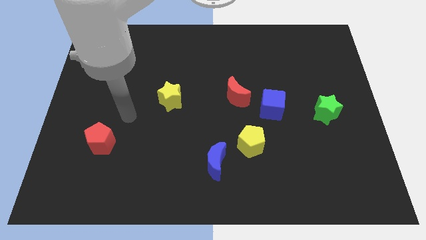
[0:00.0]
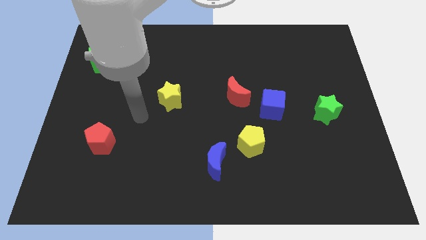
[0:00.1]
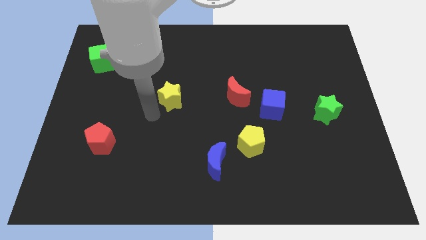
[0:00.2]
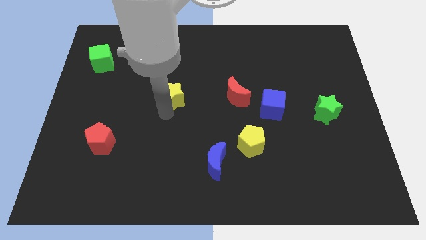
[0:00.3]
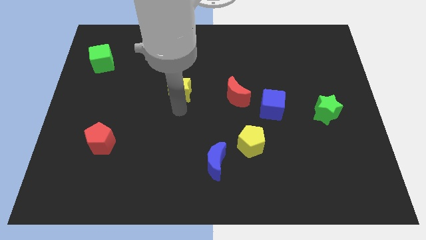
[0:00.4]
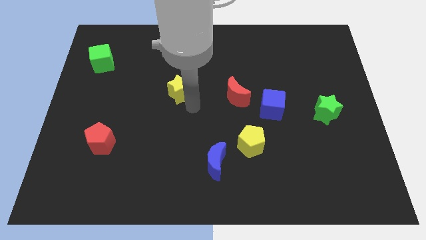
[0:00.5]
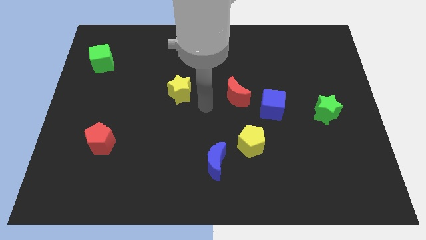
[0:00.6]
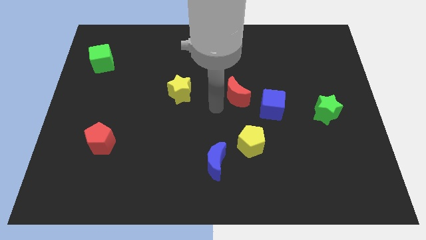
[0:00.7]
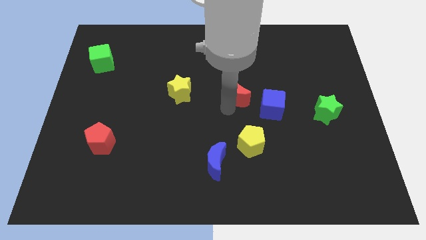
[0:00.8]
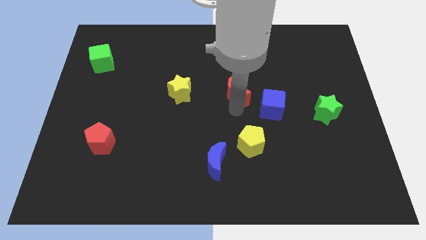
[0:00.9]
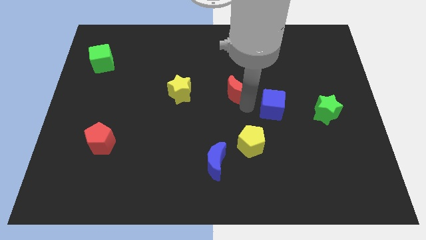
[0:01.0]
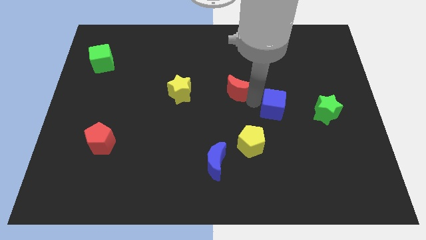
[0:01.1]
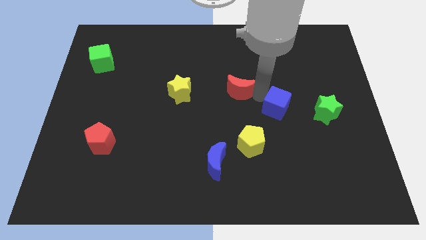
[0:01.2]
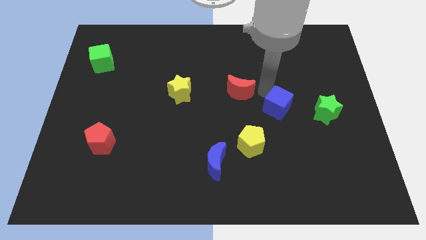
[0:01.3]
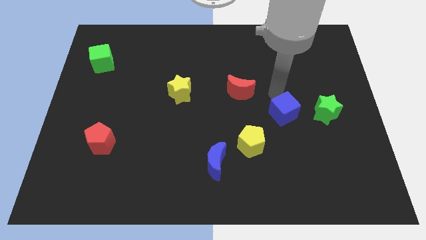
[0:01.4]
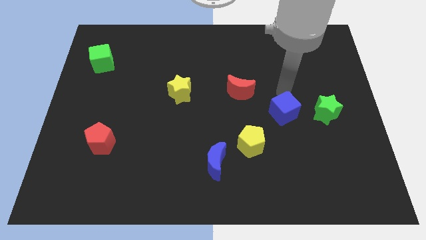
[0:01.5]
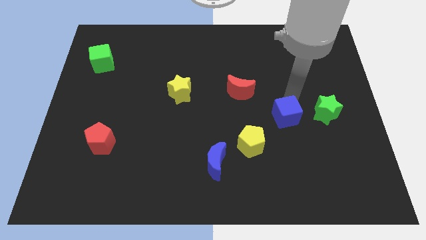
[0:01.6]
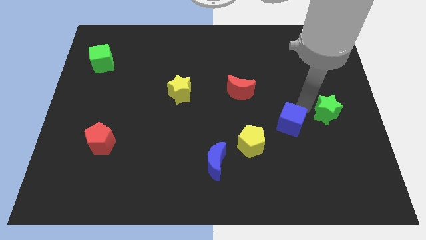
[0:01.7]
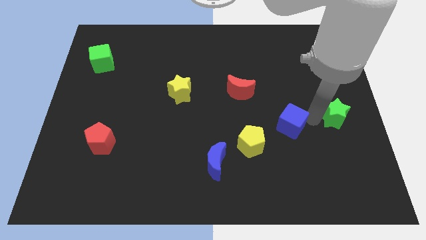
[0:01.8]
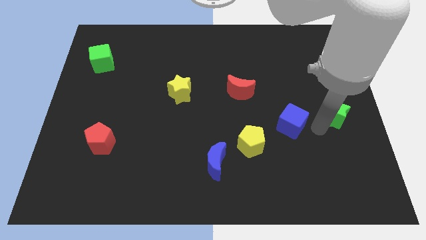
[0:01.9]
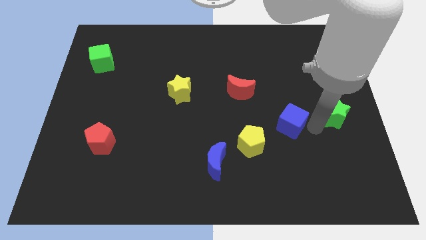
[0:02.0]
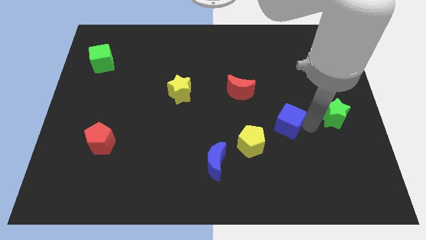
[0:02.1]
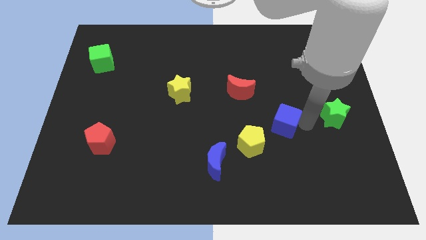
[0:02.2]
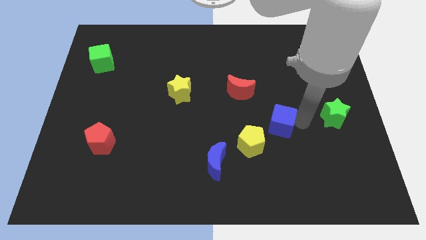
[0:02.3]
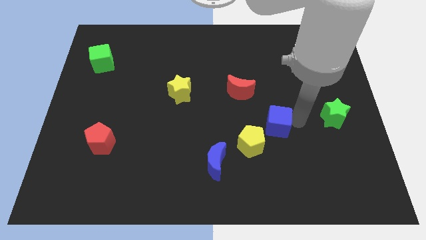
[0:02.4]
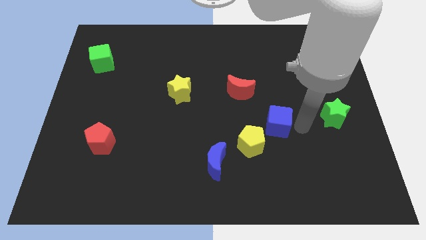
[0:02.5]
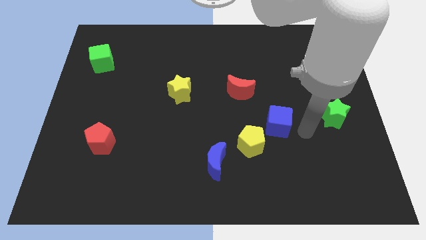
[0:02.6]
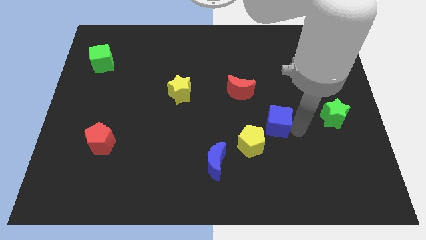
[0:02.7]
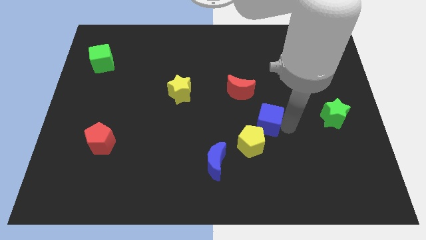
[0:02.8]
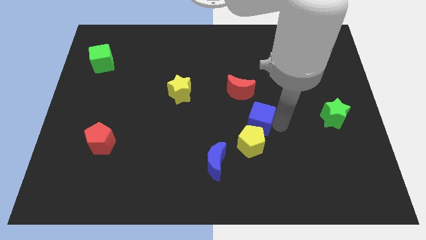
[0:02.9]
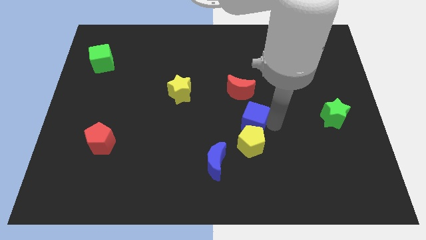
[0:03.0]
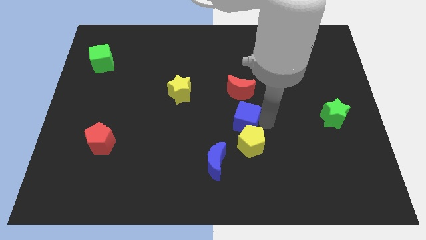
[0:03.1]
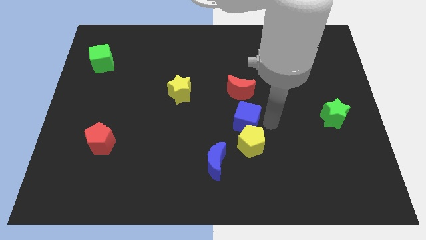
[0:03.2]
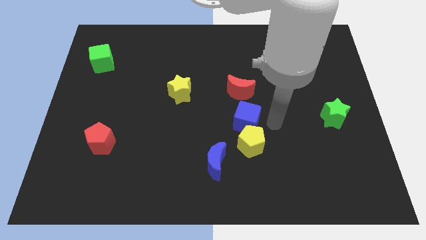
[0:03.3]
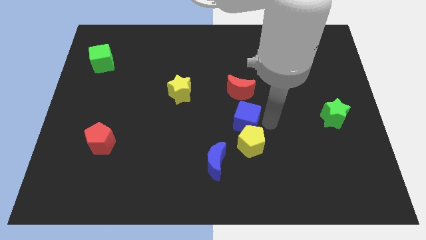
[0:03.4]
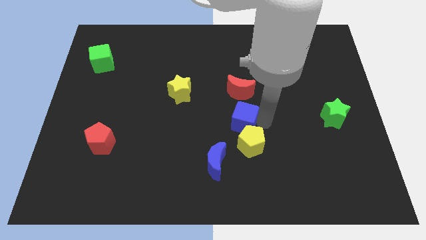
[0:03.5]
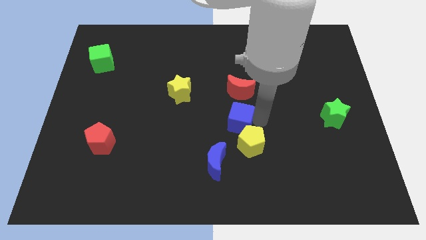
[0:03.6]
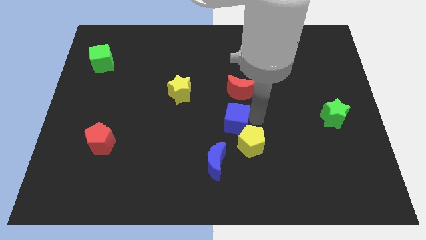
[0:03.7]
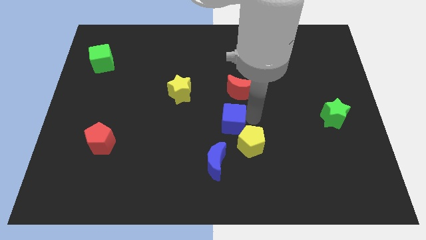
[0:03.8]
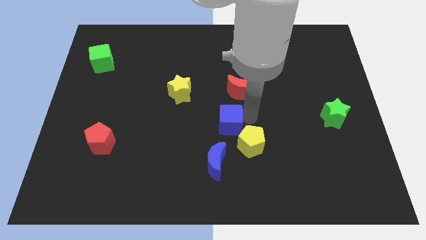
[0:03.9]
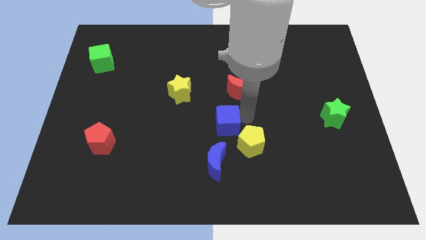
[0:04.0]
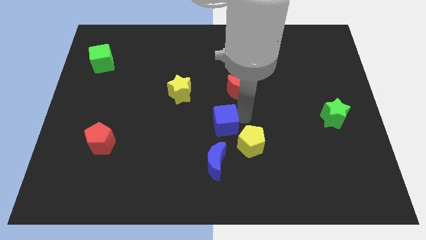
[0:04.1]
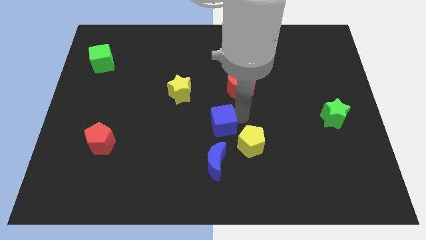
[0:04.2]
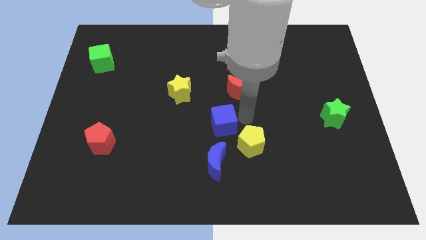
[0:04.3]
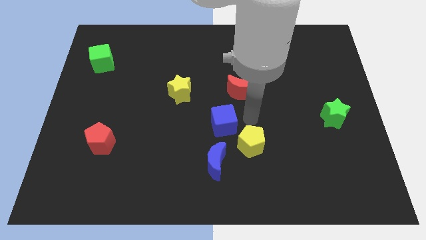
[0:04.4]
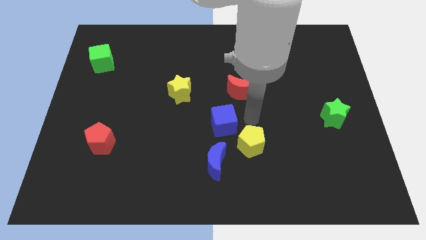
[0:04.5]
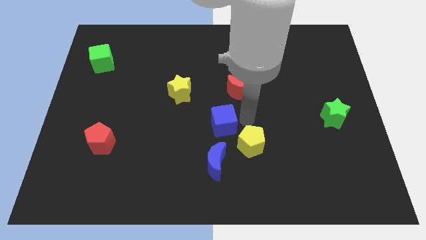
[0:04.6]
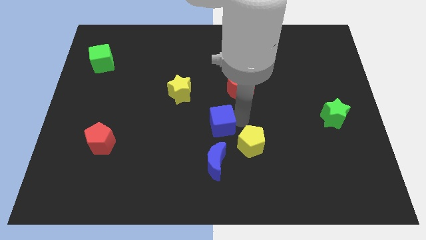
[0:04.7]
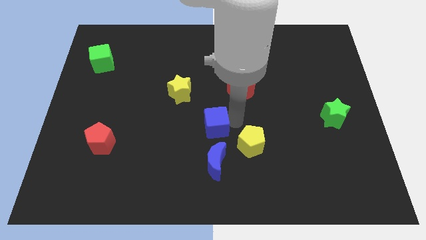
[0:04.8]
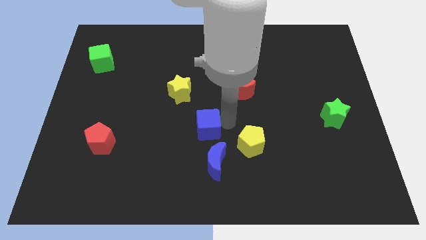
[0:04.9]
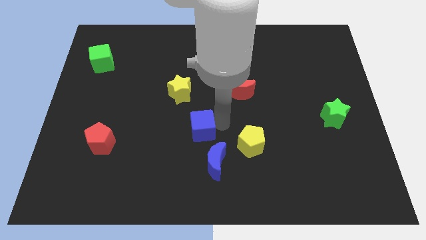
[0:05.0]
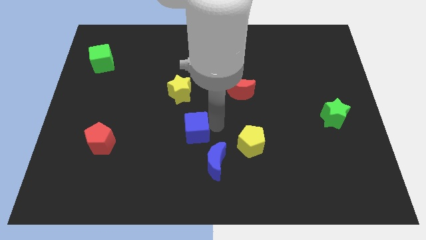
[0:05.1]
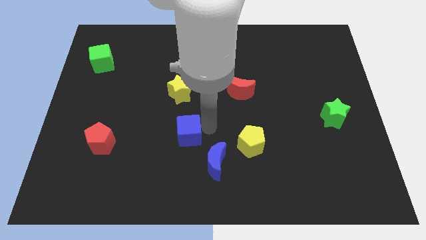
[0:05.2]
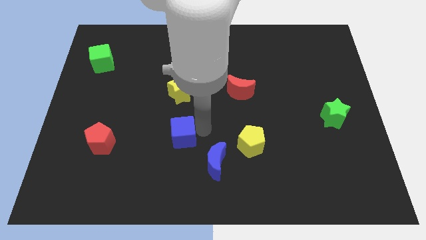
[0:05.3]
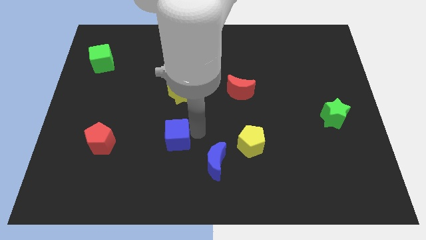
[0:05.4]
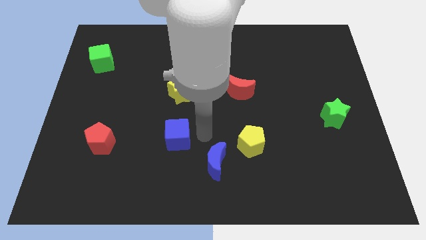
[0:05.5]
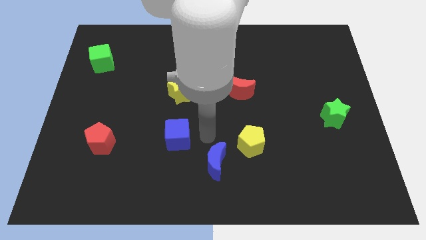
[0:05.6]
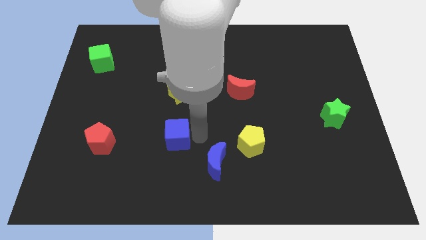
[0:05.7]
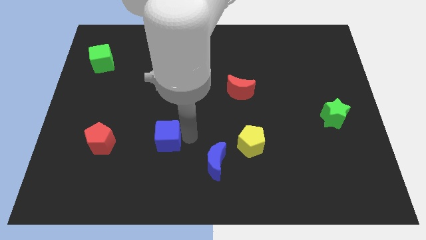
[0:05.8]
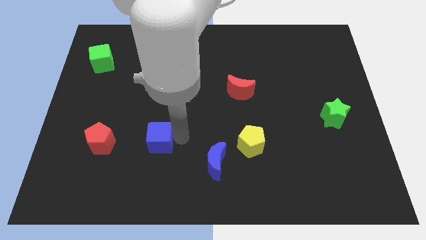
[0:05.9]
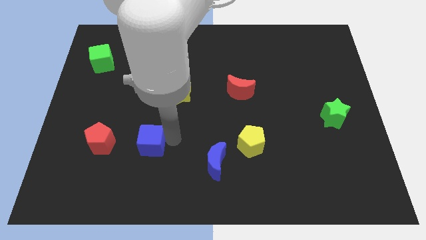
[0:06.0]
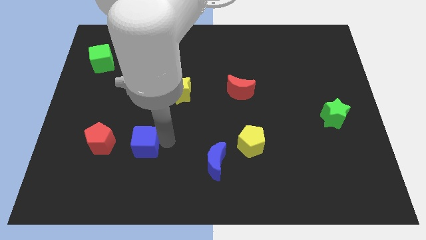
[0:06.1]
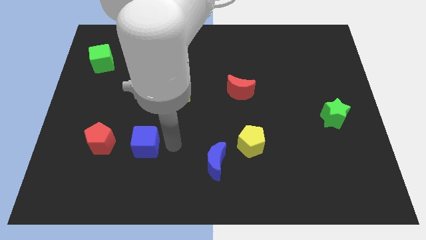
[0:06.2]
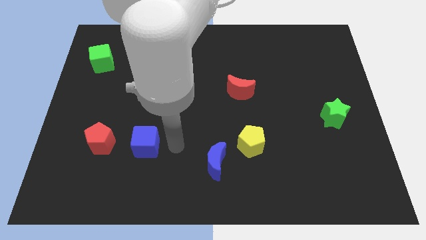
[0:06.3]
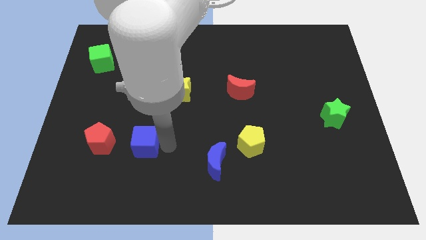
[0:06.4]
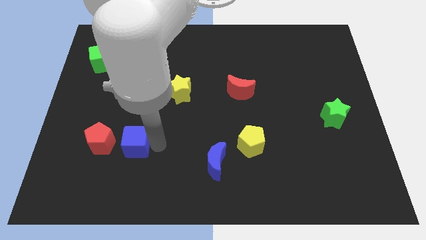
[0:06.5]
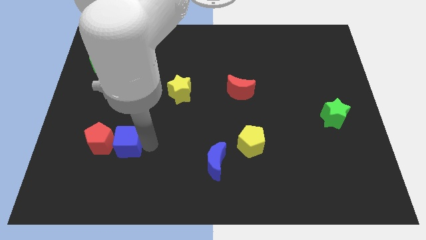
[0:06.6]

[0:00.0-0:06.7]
slide the blue cube to the red pentagon
